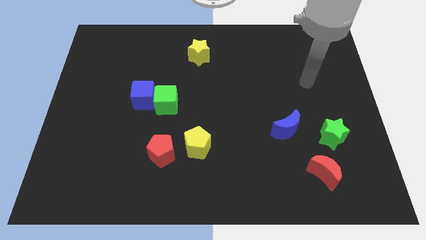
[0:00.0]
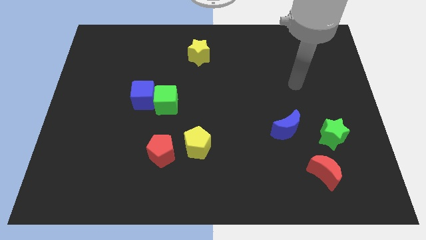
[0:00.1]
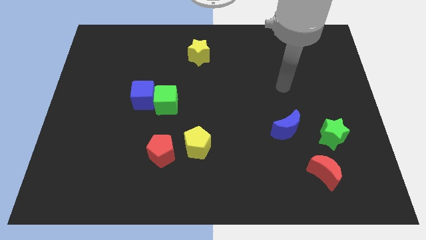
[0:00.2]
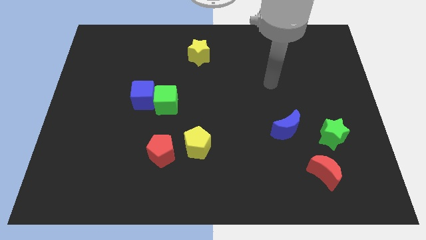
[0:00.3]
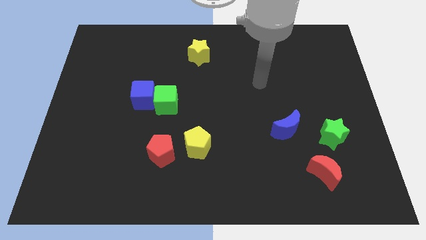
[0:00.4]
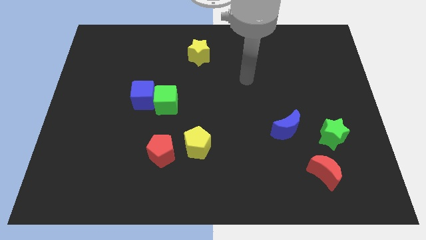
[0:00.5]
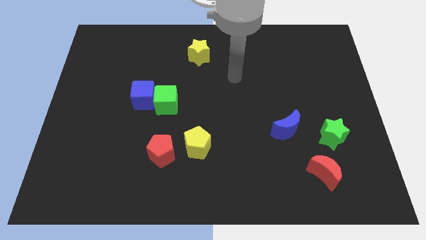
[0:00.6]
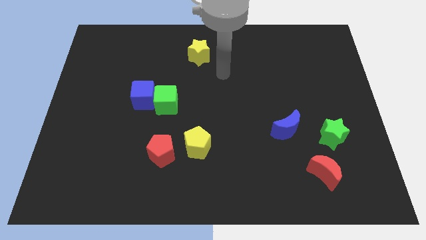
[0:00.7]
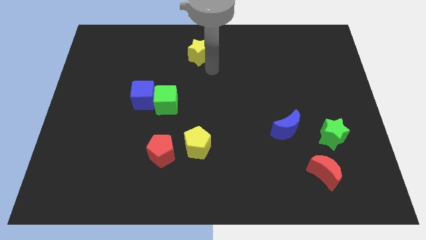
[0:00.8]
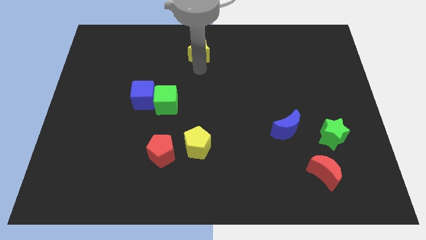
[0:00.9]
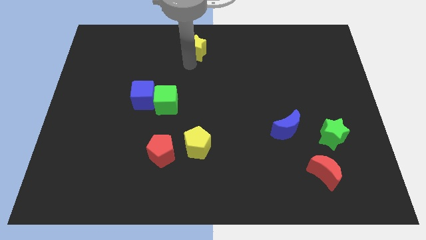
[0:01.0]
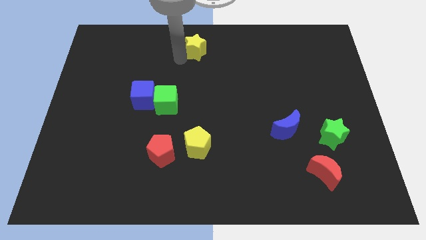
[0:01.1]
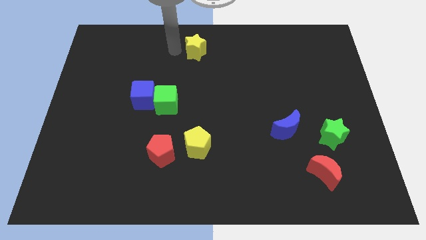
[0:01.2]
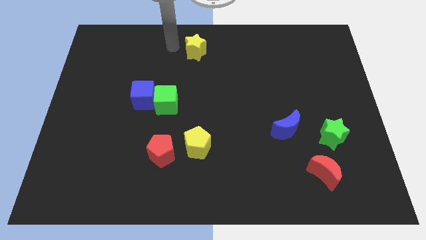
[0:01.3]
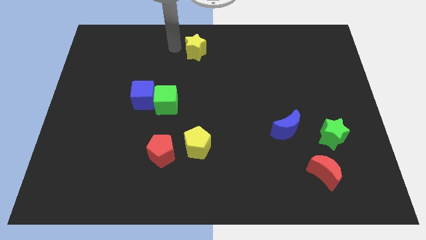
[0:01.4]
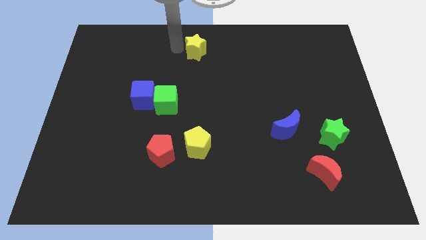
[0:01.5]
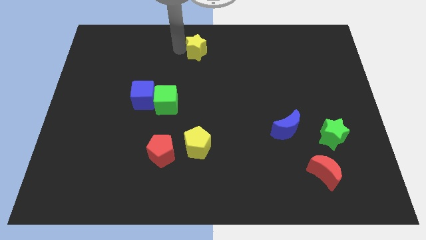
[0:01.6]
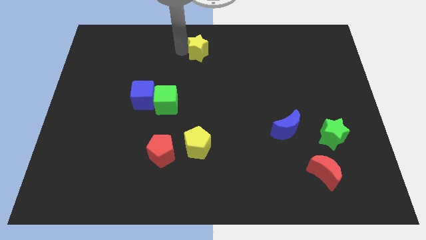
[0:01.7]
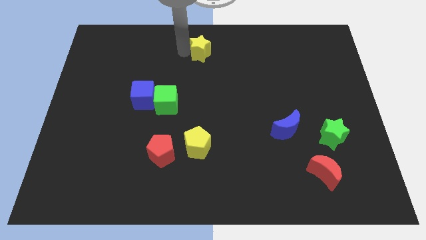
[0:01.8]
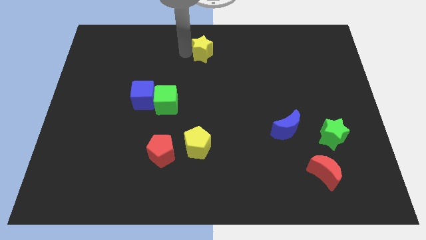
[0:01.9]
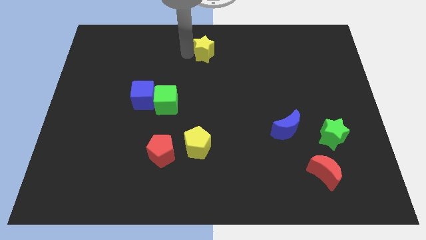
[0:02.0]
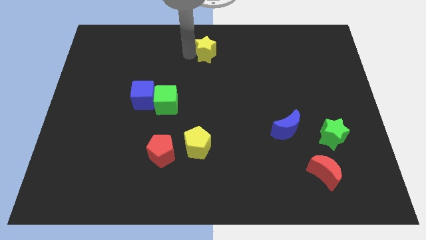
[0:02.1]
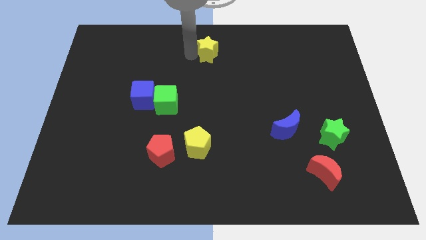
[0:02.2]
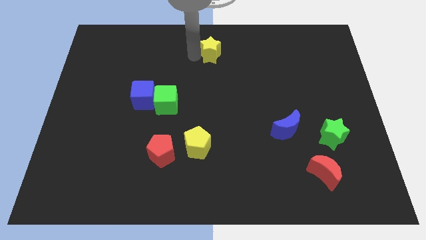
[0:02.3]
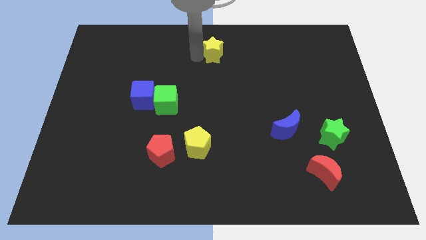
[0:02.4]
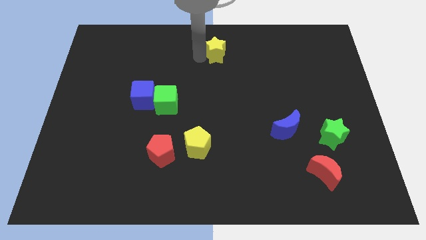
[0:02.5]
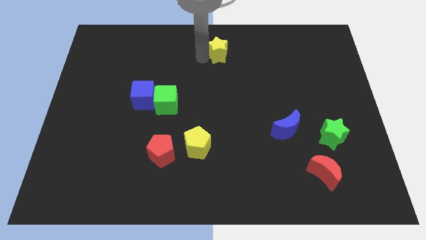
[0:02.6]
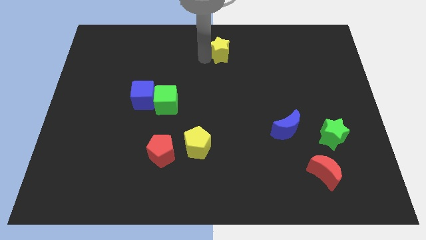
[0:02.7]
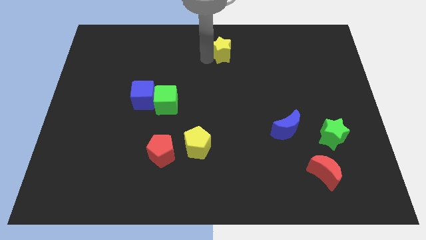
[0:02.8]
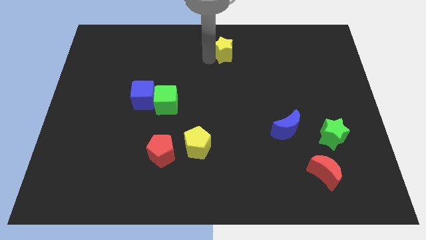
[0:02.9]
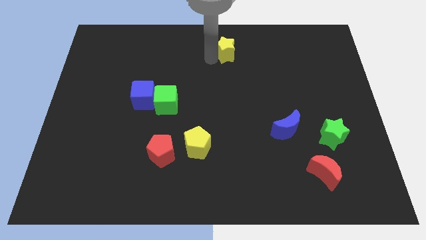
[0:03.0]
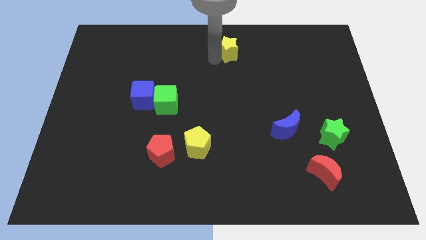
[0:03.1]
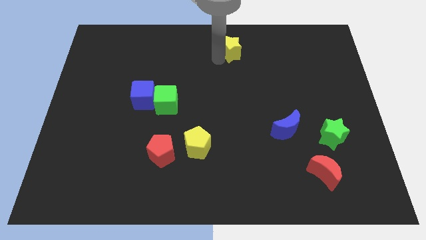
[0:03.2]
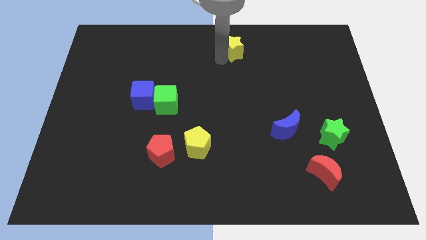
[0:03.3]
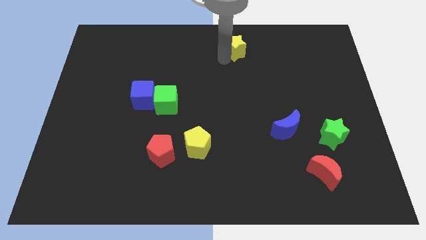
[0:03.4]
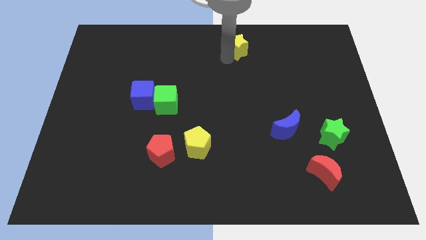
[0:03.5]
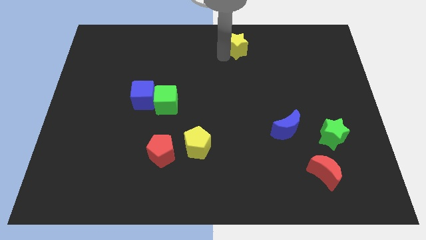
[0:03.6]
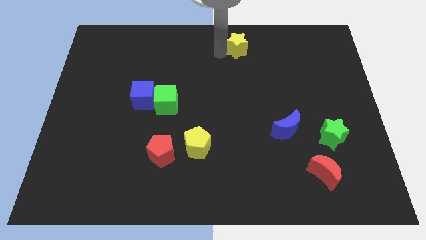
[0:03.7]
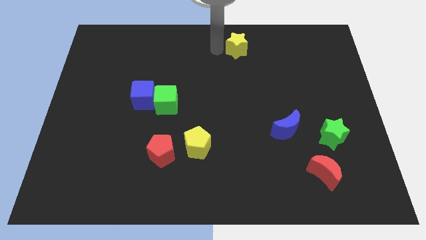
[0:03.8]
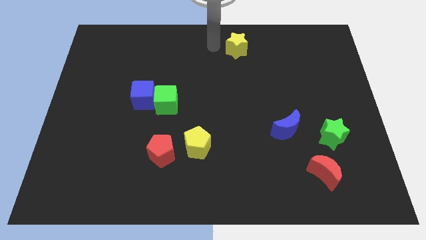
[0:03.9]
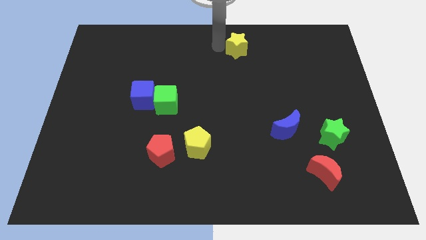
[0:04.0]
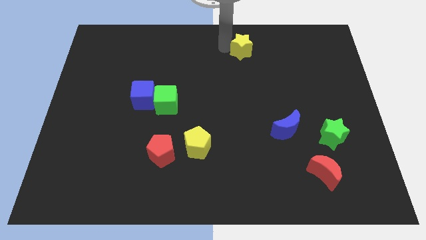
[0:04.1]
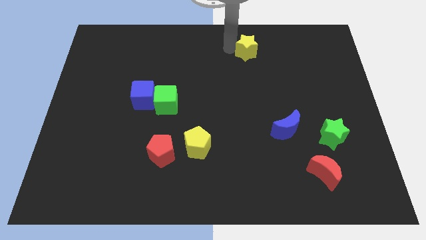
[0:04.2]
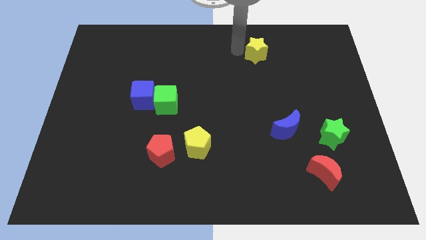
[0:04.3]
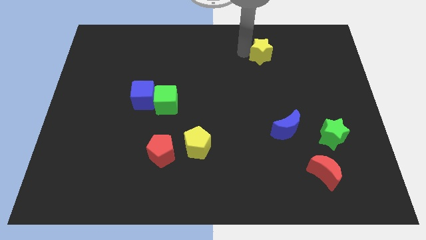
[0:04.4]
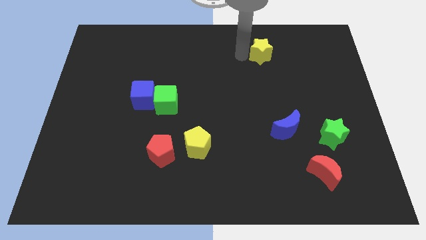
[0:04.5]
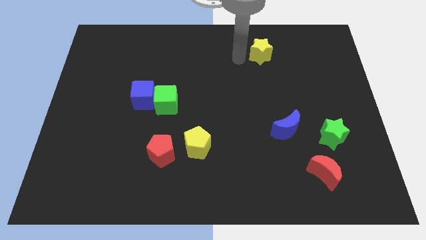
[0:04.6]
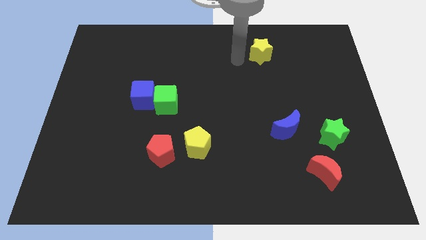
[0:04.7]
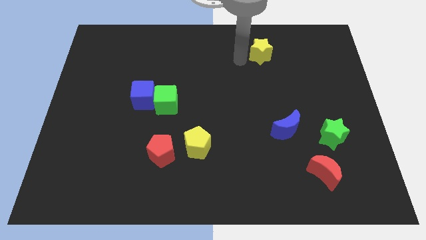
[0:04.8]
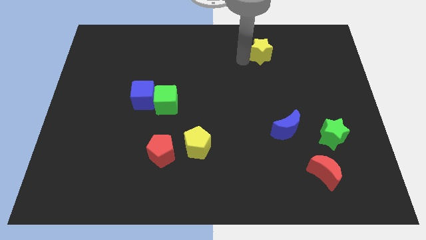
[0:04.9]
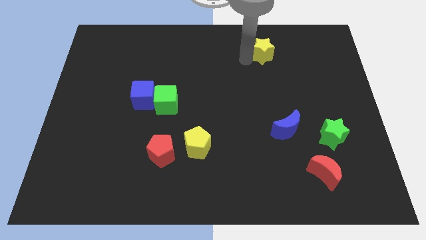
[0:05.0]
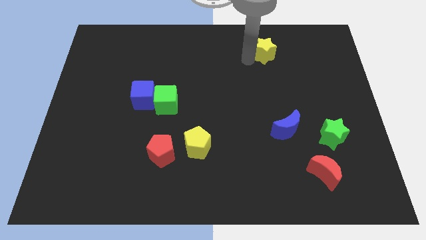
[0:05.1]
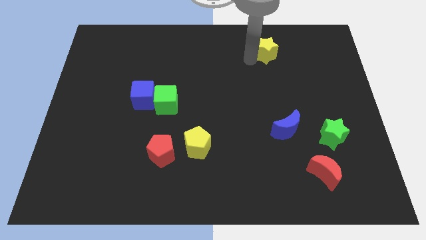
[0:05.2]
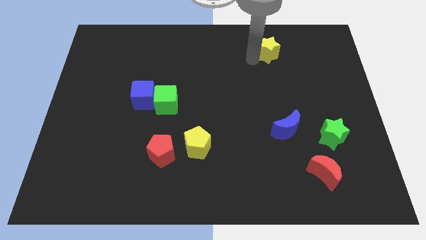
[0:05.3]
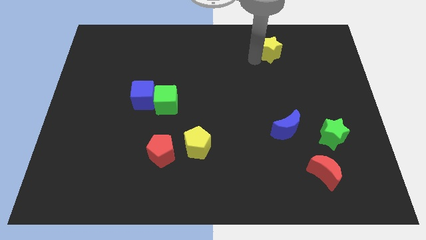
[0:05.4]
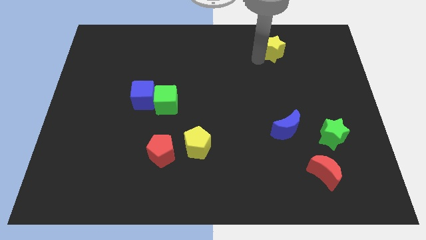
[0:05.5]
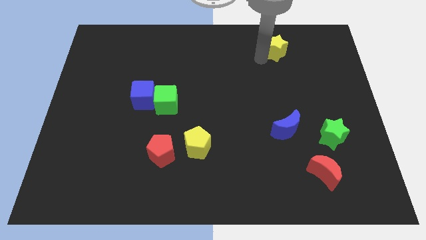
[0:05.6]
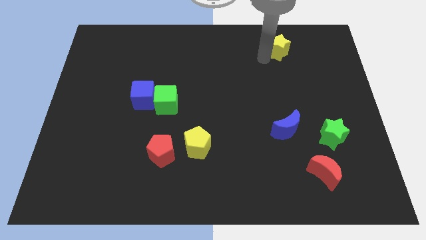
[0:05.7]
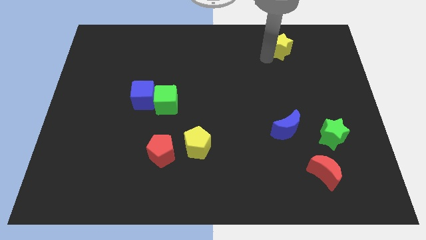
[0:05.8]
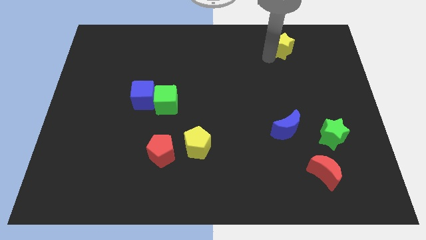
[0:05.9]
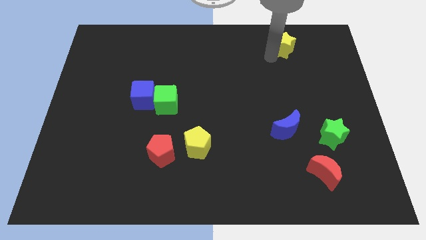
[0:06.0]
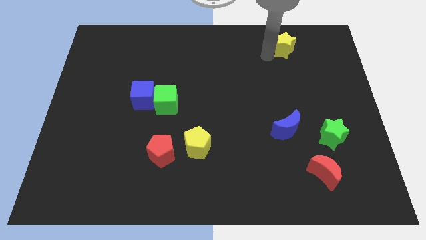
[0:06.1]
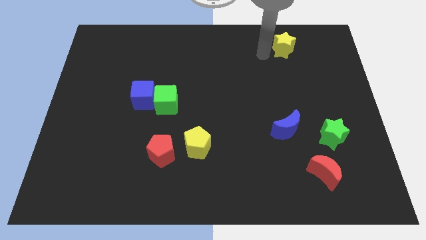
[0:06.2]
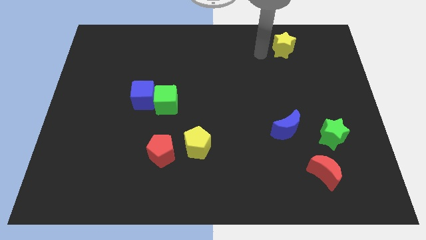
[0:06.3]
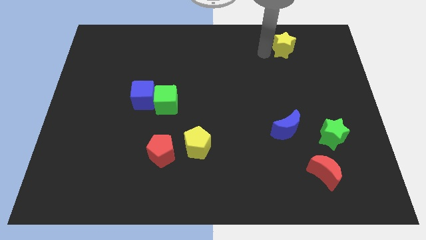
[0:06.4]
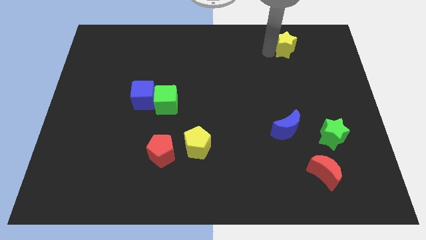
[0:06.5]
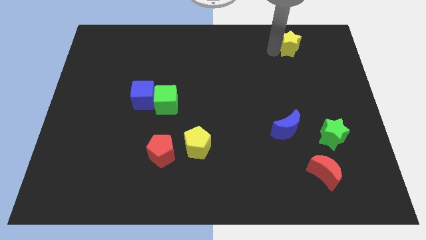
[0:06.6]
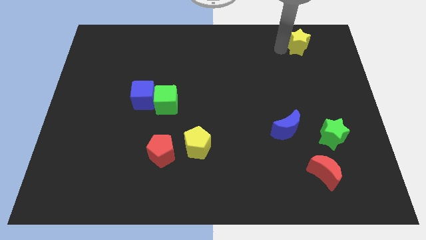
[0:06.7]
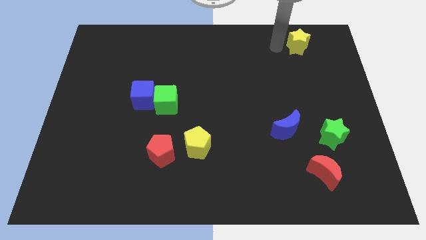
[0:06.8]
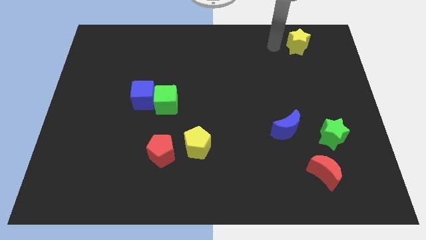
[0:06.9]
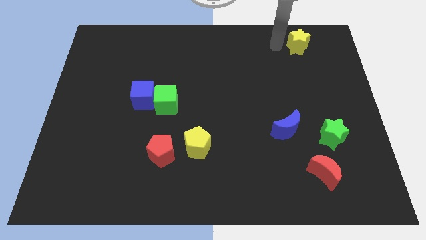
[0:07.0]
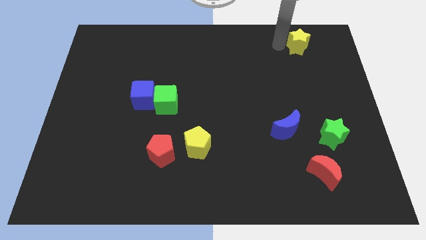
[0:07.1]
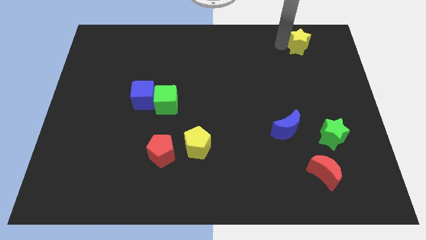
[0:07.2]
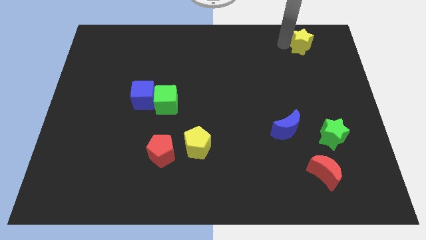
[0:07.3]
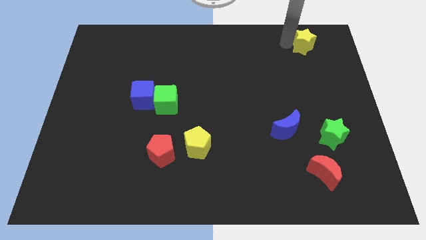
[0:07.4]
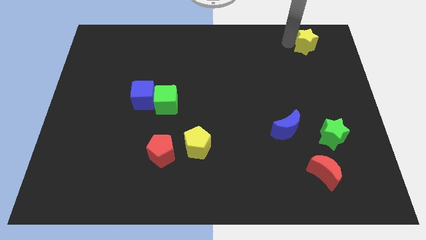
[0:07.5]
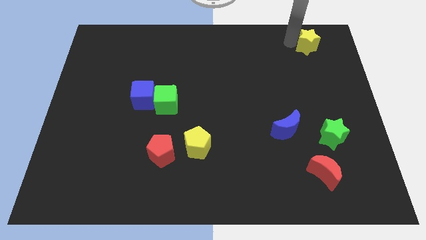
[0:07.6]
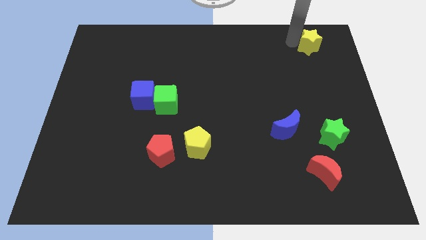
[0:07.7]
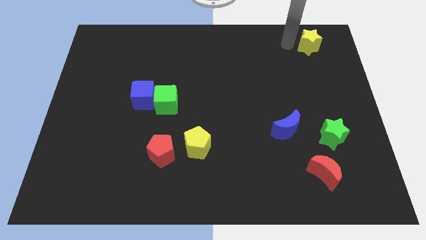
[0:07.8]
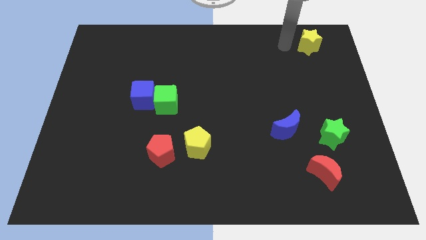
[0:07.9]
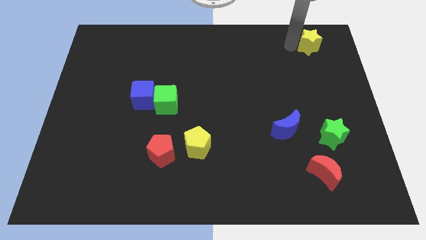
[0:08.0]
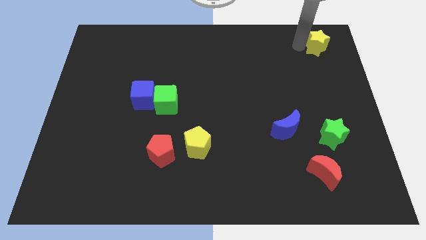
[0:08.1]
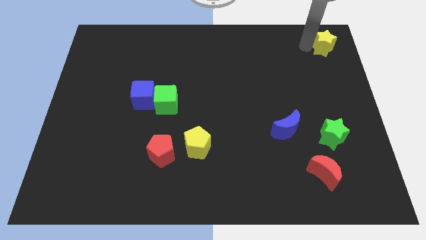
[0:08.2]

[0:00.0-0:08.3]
put the yellow star to the top right corner
